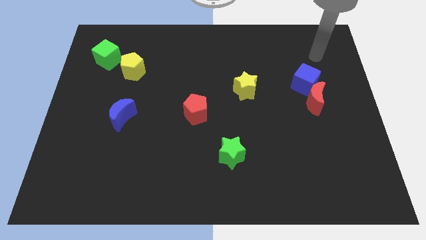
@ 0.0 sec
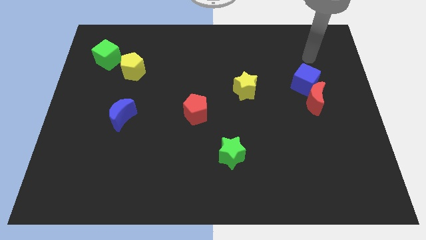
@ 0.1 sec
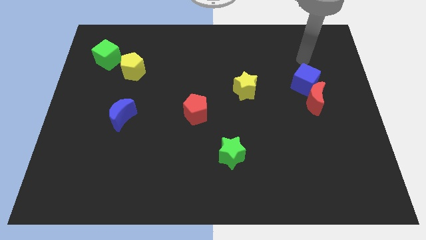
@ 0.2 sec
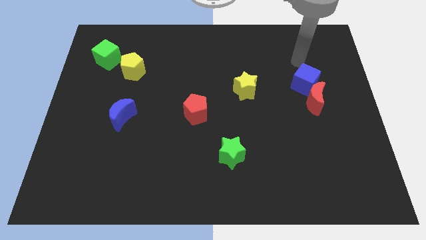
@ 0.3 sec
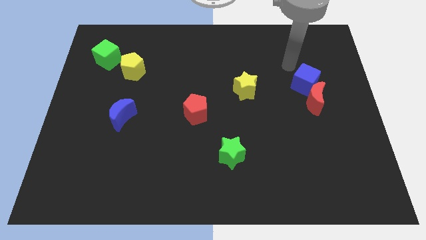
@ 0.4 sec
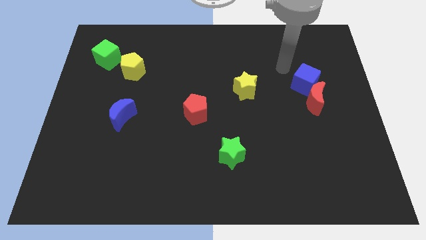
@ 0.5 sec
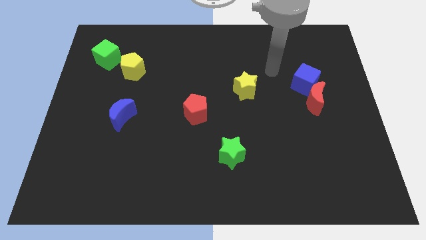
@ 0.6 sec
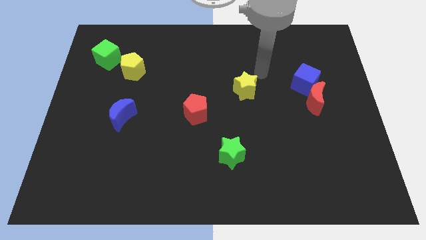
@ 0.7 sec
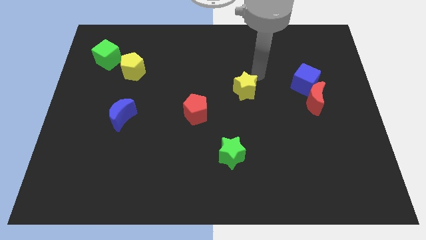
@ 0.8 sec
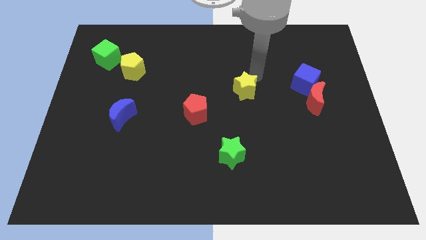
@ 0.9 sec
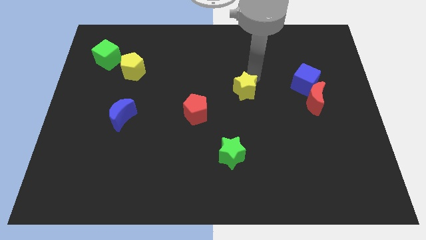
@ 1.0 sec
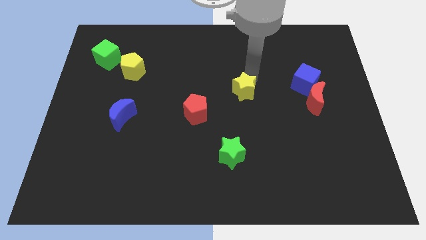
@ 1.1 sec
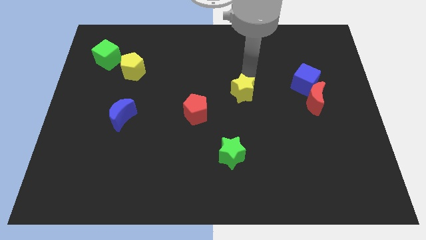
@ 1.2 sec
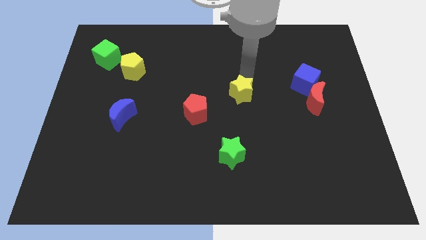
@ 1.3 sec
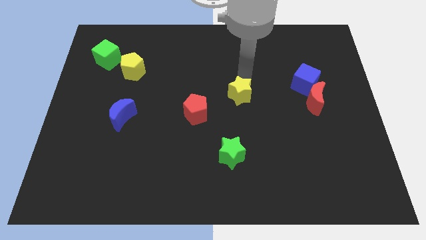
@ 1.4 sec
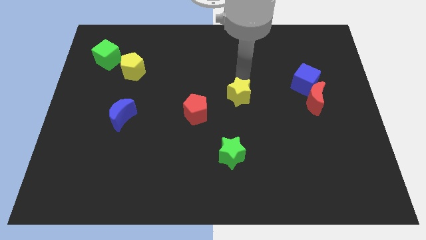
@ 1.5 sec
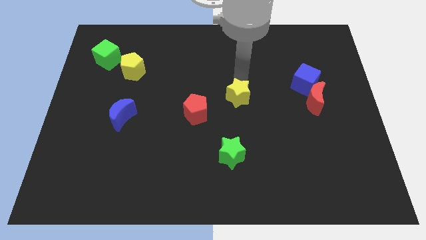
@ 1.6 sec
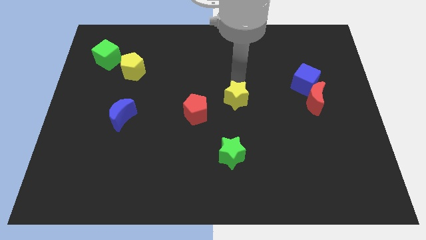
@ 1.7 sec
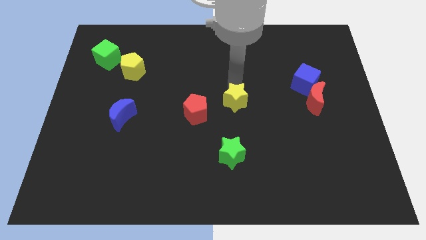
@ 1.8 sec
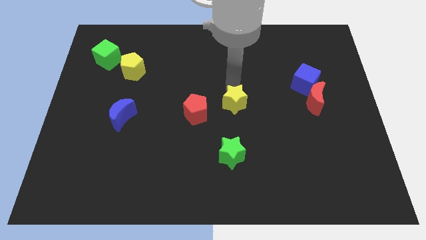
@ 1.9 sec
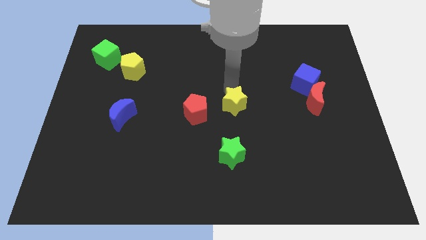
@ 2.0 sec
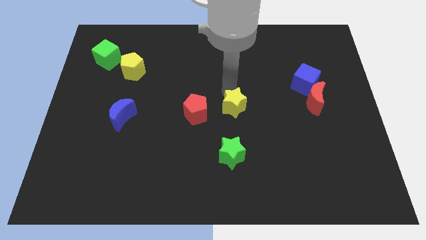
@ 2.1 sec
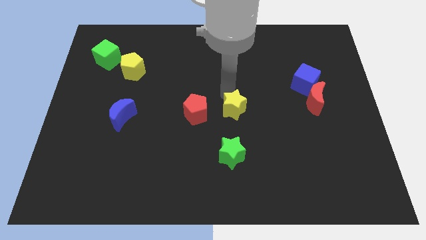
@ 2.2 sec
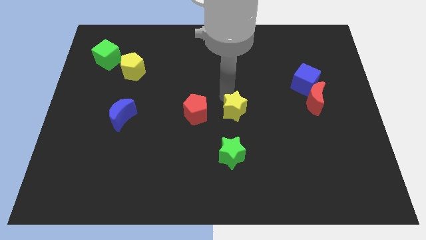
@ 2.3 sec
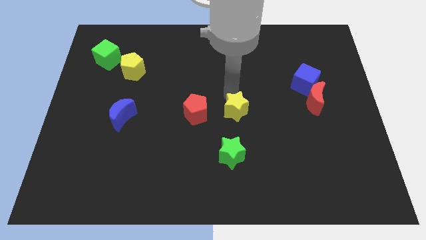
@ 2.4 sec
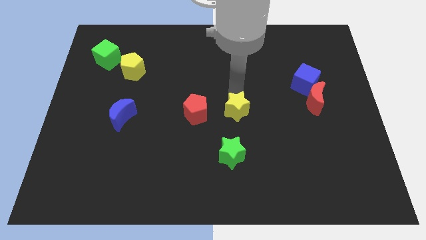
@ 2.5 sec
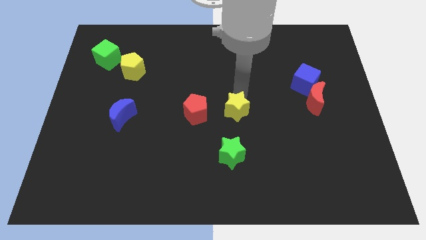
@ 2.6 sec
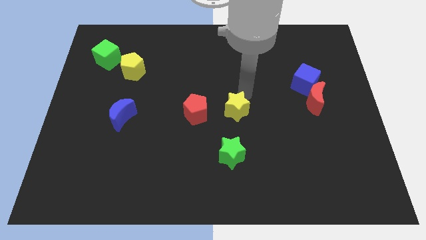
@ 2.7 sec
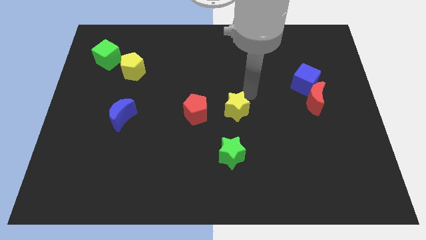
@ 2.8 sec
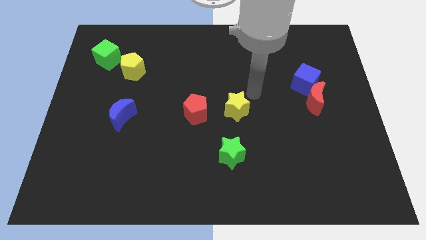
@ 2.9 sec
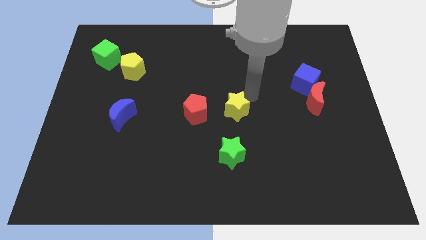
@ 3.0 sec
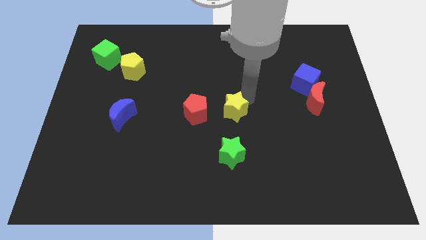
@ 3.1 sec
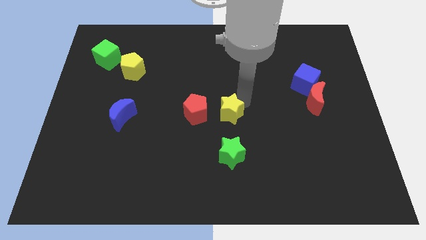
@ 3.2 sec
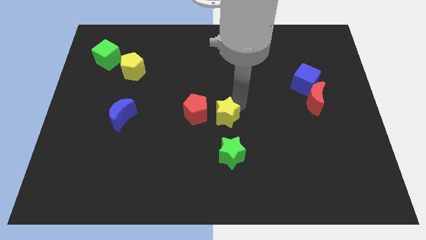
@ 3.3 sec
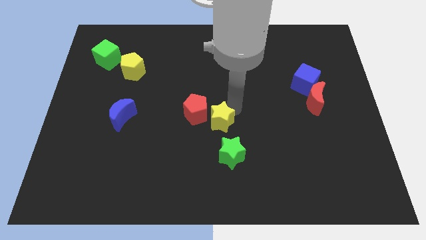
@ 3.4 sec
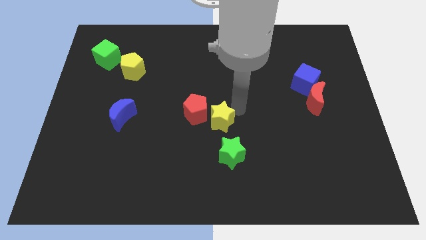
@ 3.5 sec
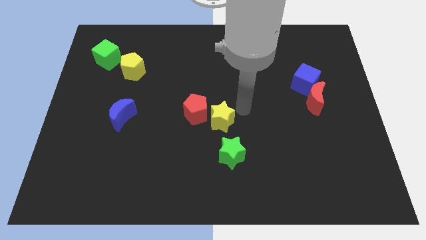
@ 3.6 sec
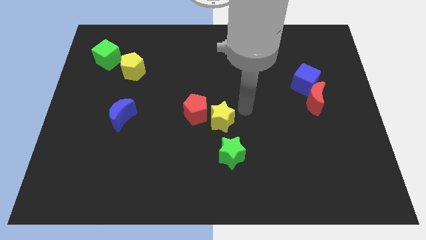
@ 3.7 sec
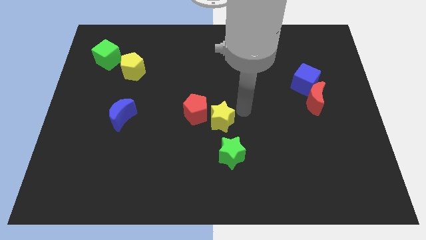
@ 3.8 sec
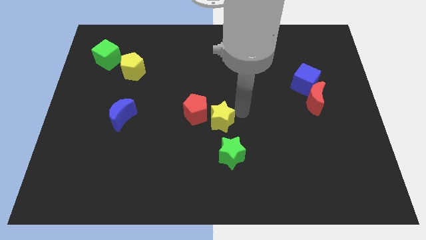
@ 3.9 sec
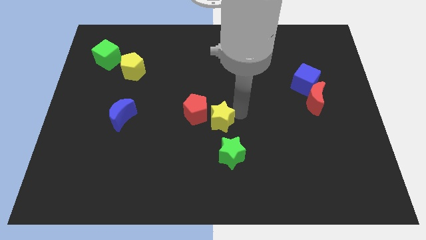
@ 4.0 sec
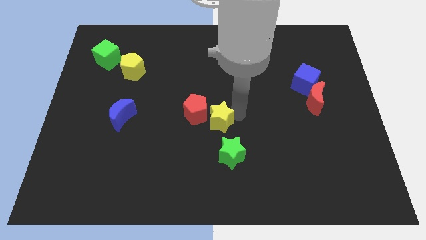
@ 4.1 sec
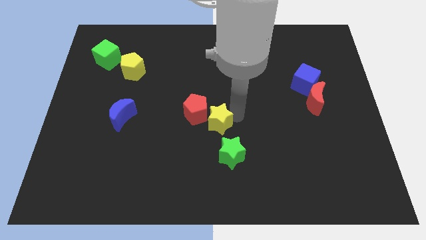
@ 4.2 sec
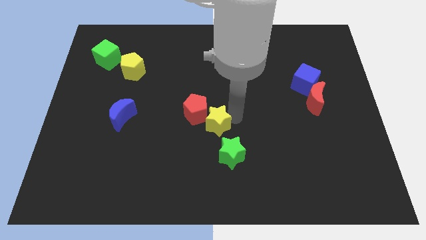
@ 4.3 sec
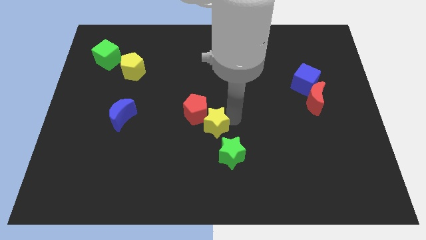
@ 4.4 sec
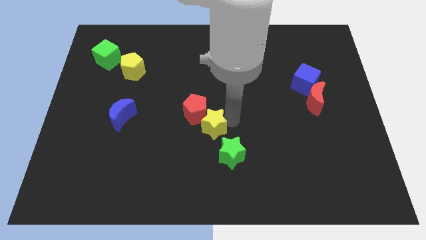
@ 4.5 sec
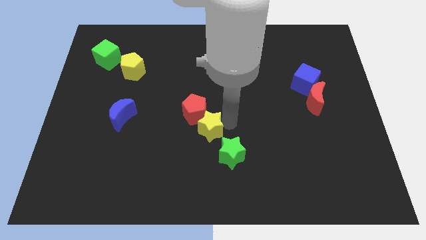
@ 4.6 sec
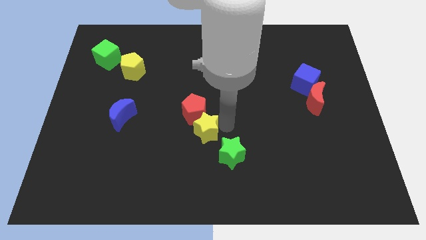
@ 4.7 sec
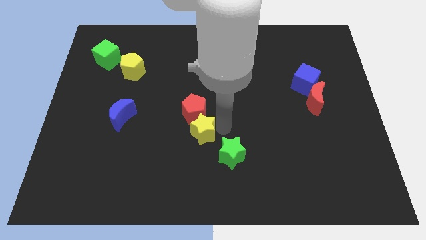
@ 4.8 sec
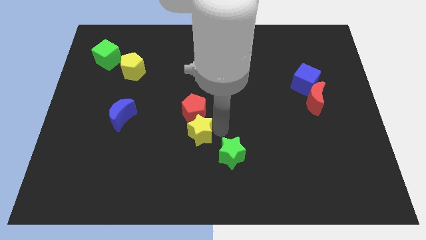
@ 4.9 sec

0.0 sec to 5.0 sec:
put the yellow star to the bottom left side of the red pentagon

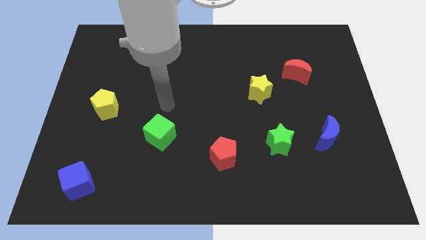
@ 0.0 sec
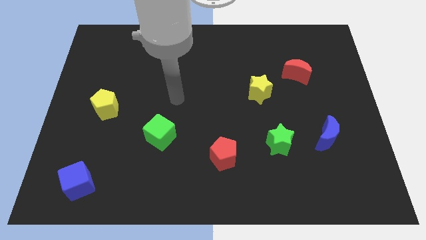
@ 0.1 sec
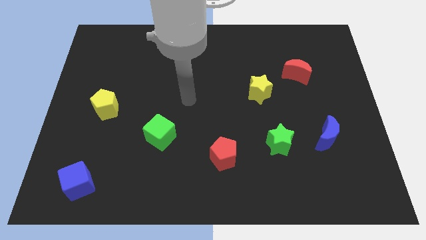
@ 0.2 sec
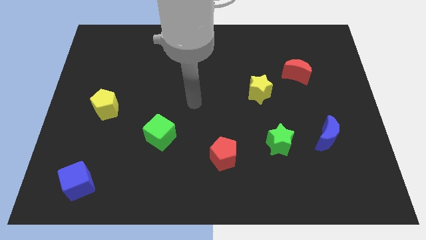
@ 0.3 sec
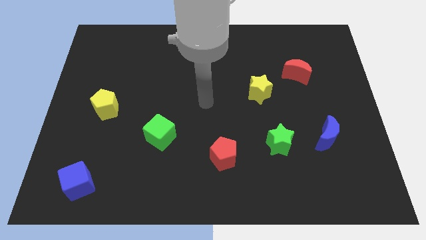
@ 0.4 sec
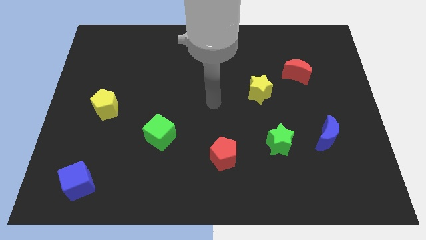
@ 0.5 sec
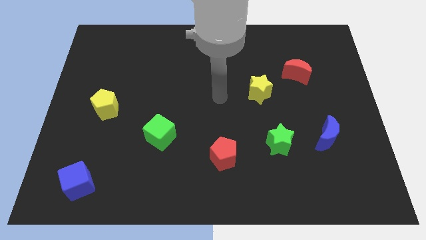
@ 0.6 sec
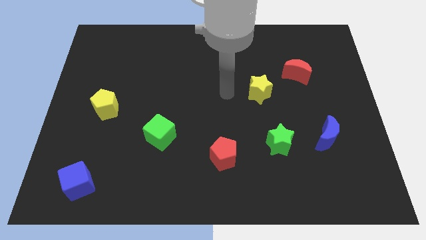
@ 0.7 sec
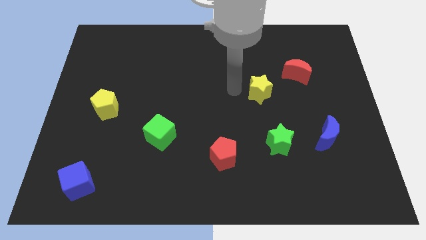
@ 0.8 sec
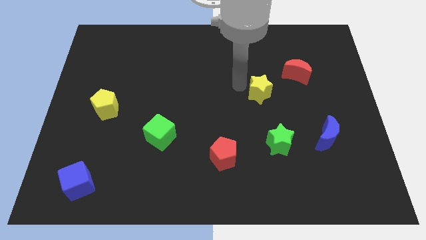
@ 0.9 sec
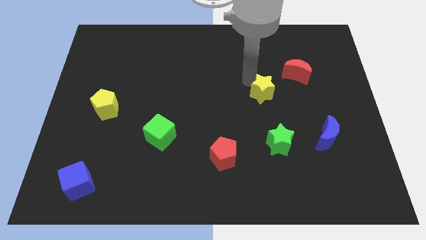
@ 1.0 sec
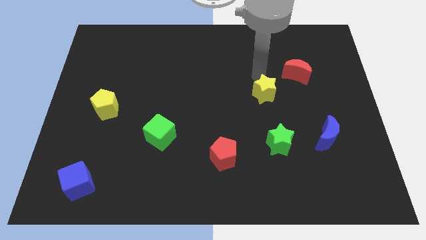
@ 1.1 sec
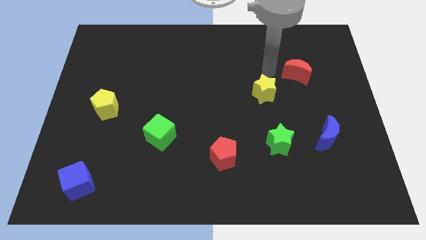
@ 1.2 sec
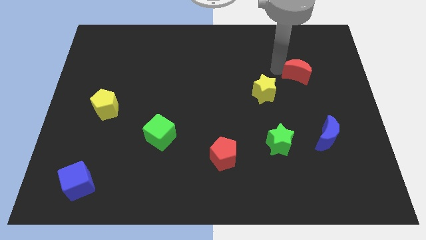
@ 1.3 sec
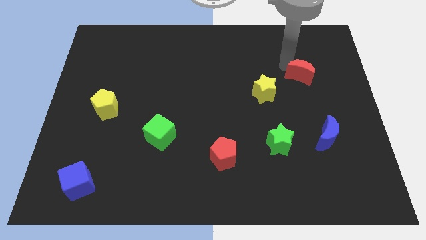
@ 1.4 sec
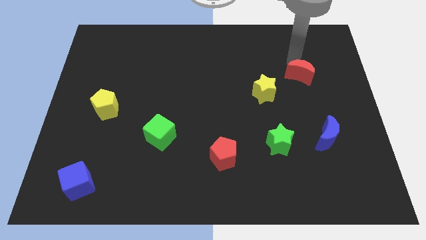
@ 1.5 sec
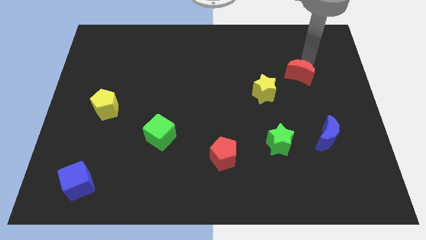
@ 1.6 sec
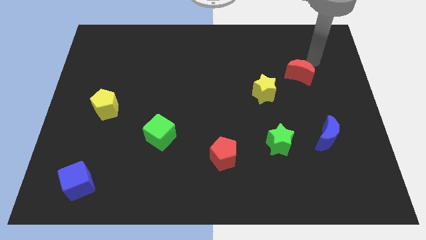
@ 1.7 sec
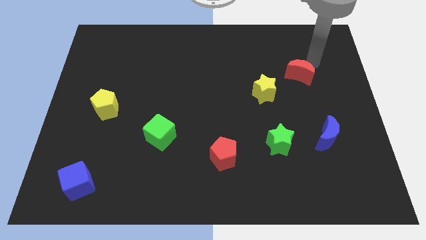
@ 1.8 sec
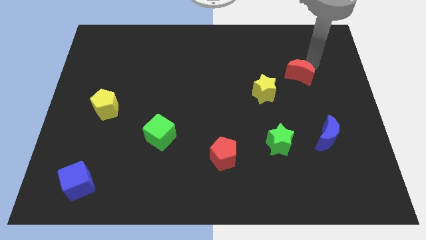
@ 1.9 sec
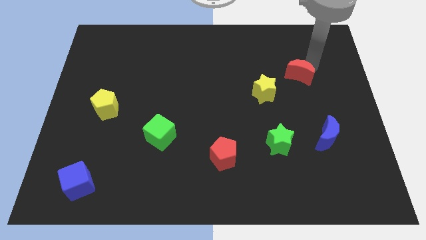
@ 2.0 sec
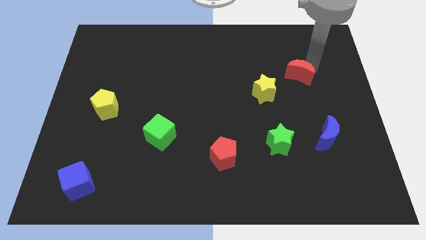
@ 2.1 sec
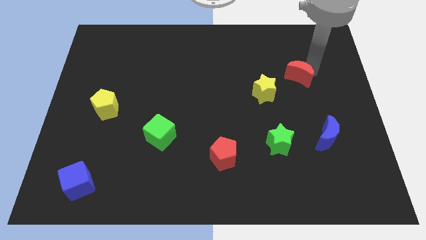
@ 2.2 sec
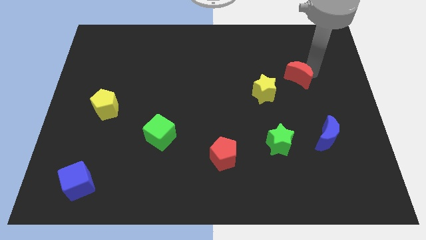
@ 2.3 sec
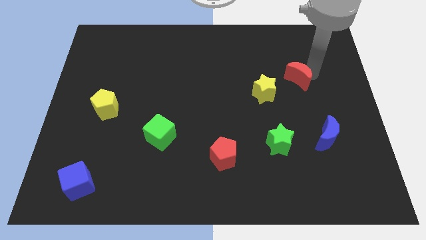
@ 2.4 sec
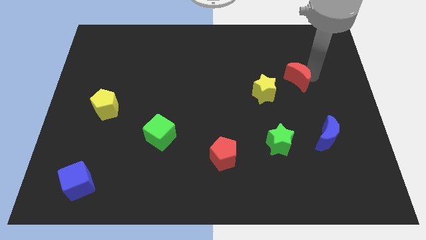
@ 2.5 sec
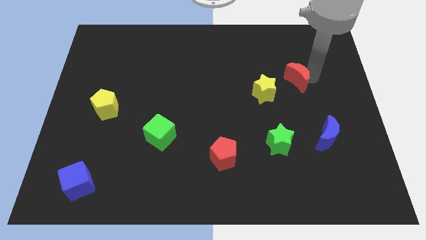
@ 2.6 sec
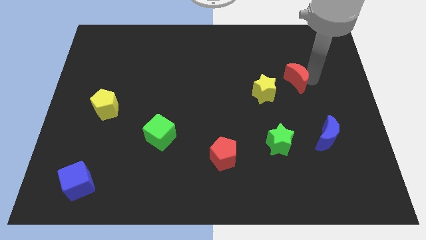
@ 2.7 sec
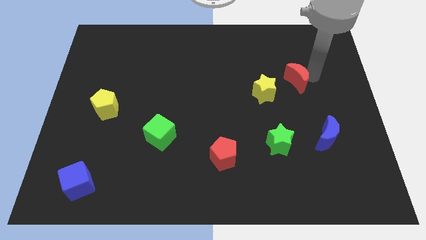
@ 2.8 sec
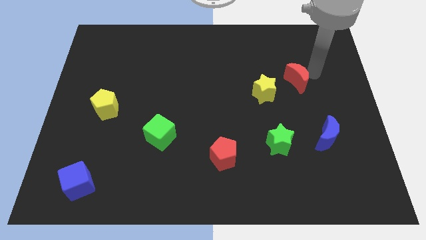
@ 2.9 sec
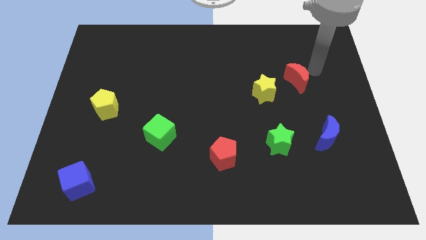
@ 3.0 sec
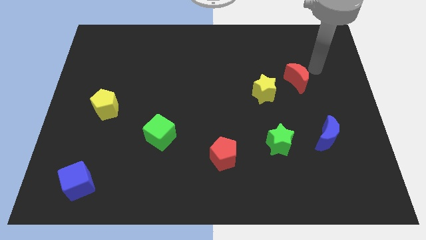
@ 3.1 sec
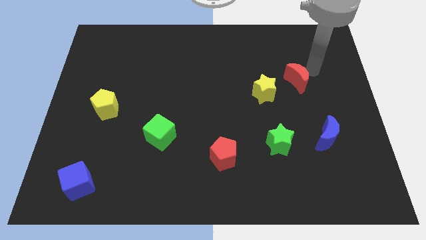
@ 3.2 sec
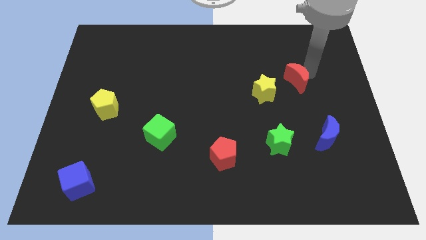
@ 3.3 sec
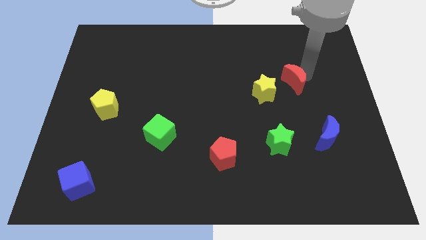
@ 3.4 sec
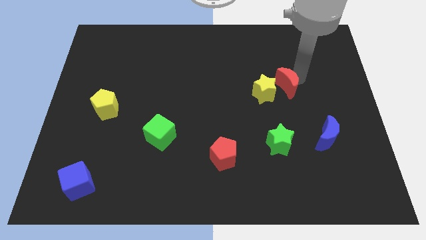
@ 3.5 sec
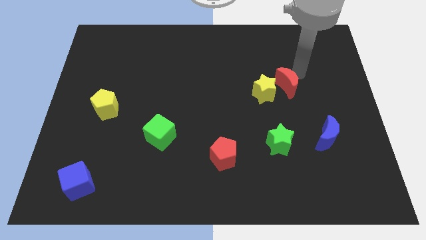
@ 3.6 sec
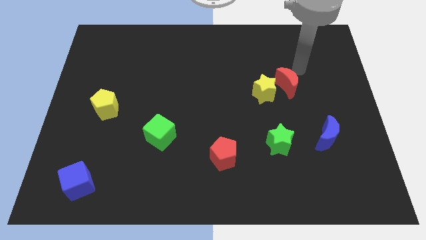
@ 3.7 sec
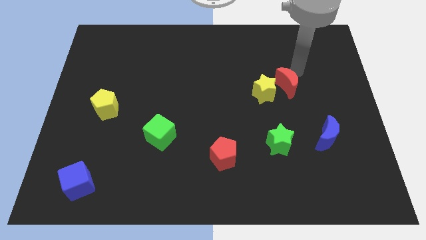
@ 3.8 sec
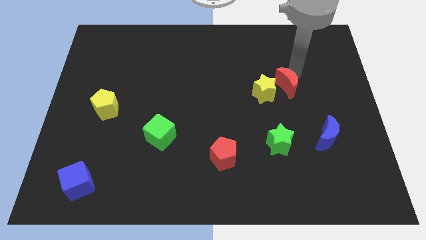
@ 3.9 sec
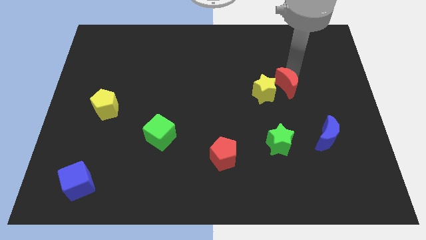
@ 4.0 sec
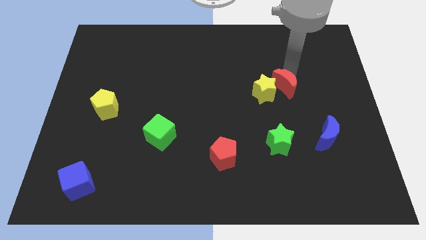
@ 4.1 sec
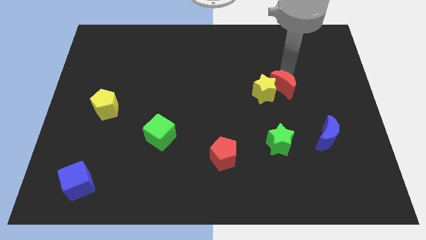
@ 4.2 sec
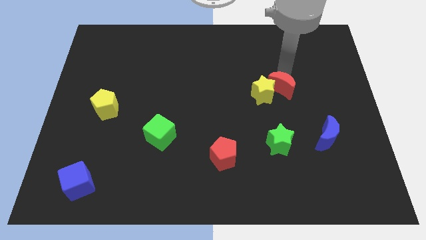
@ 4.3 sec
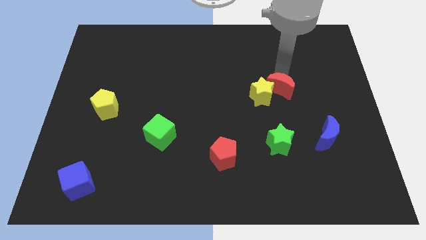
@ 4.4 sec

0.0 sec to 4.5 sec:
move the red moon above the green star
